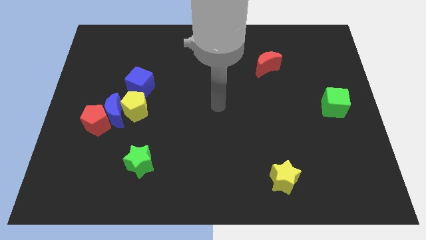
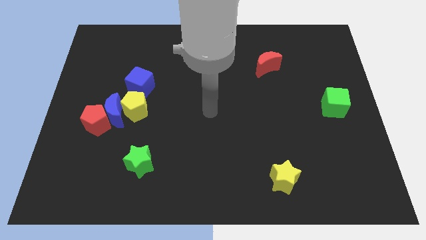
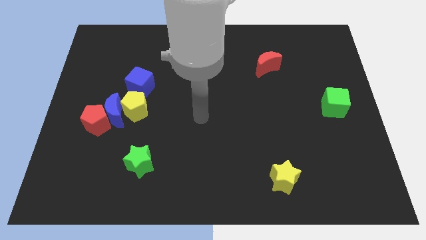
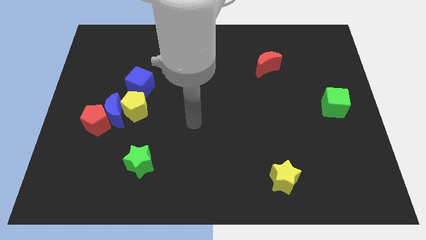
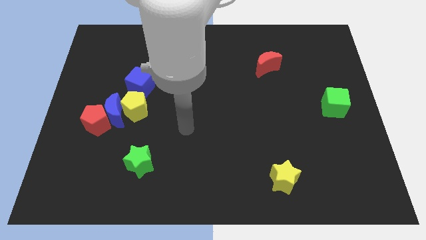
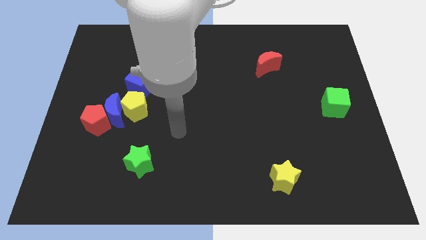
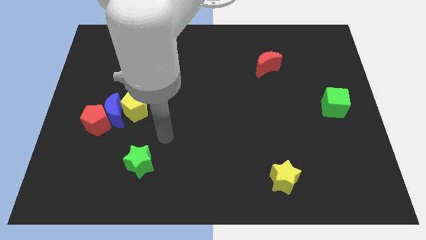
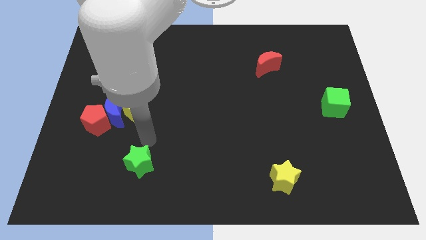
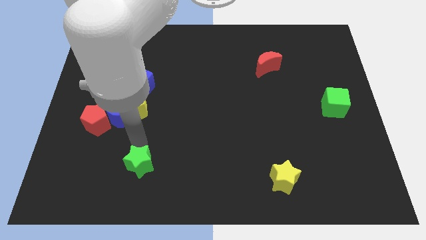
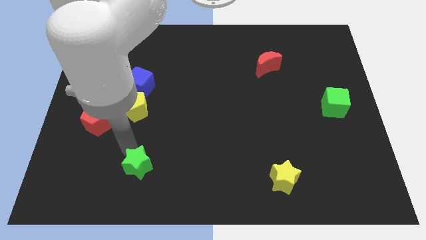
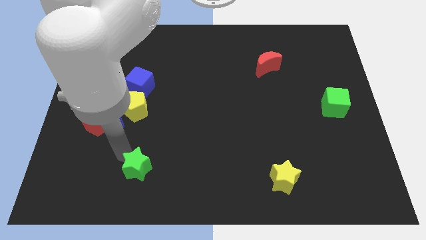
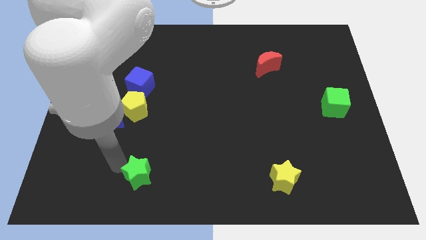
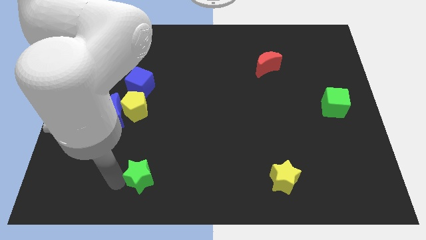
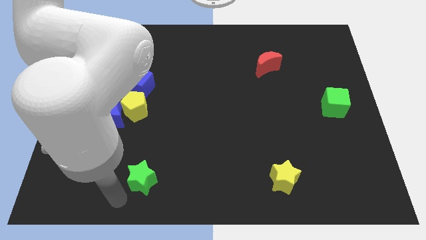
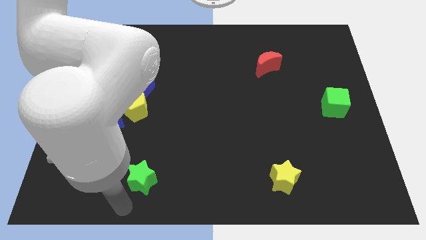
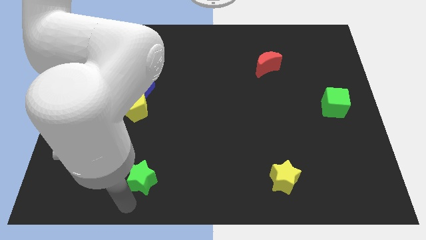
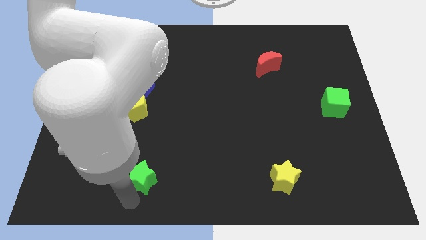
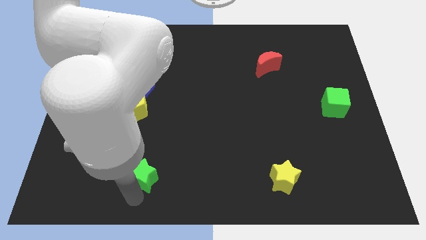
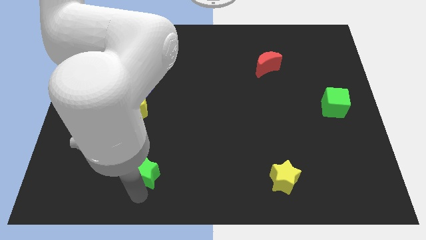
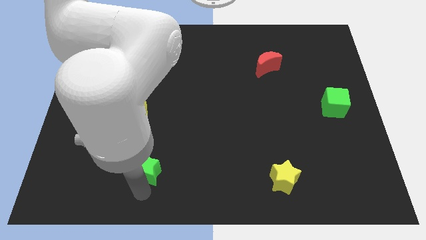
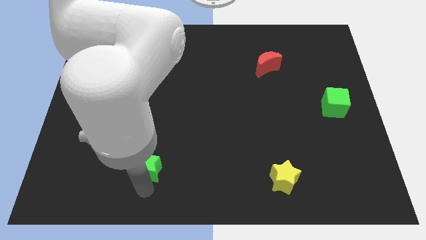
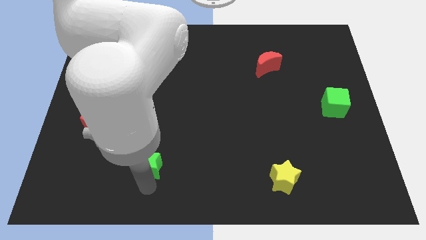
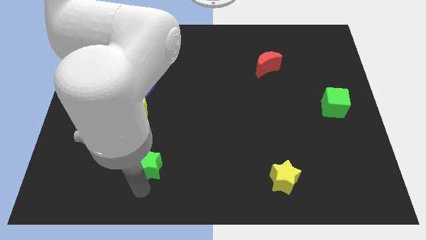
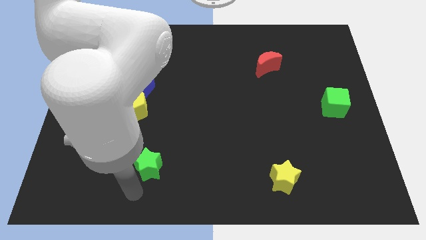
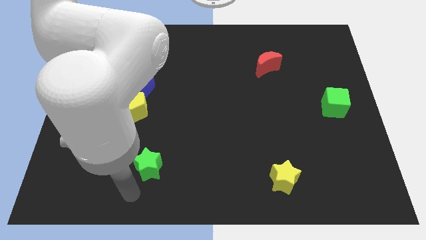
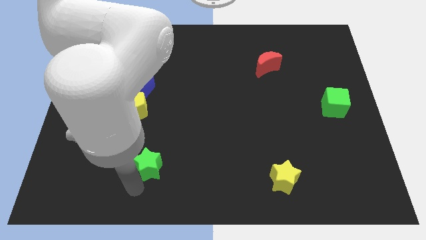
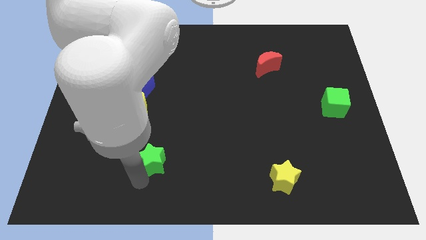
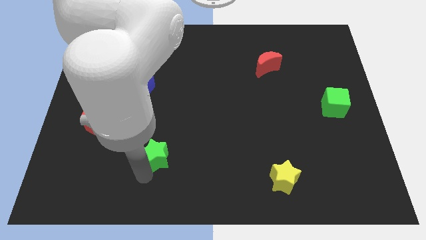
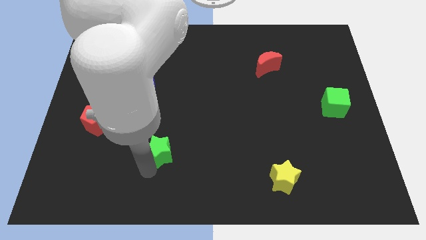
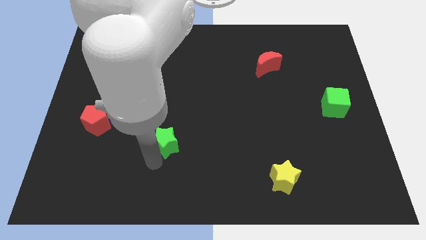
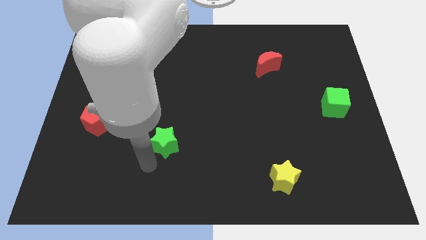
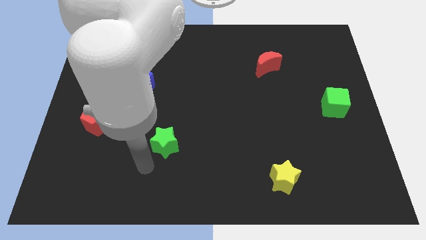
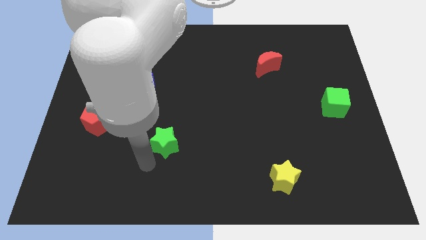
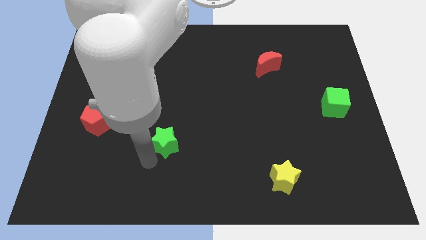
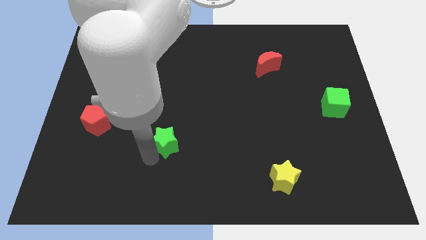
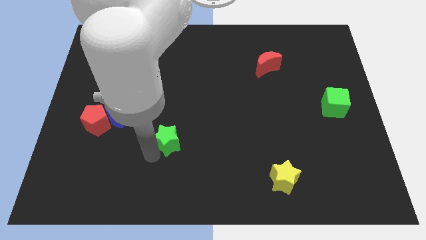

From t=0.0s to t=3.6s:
move the green star upwards and right somewhat

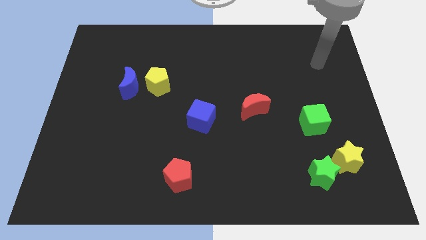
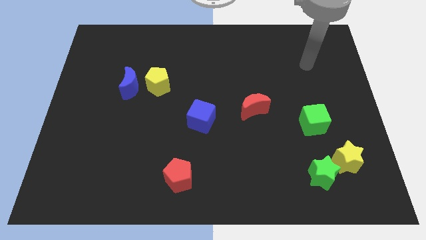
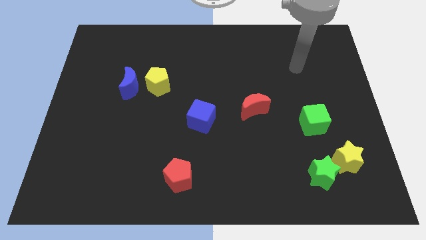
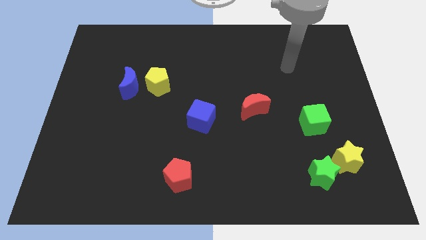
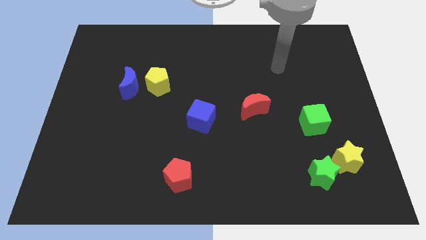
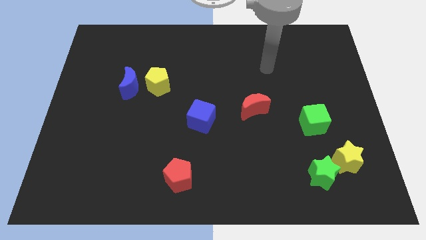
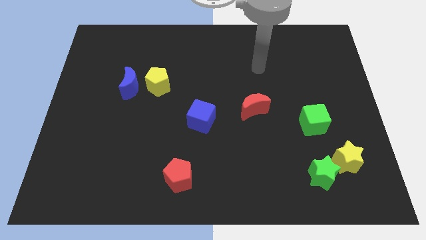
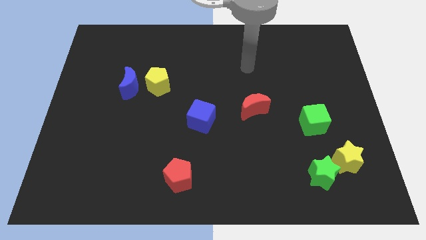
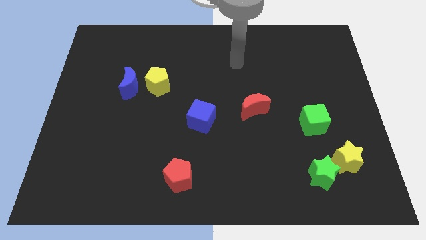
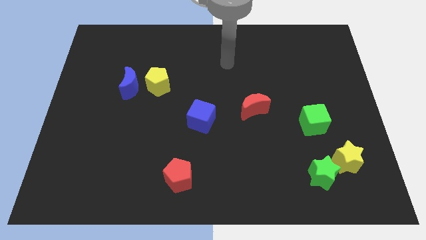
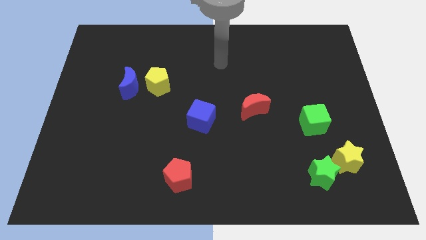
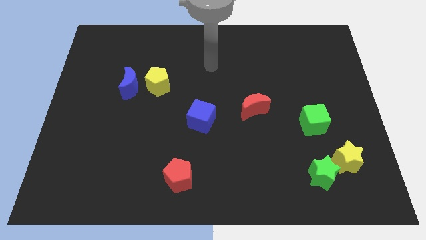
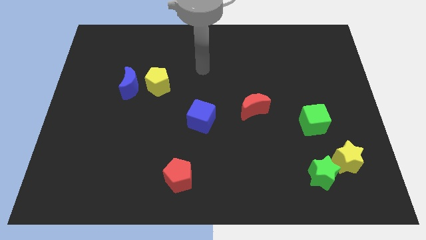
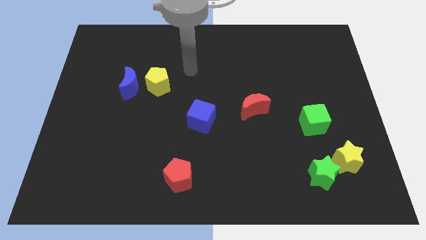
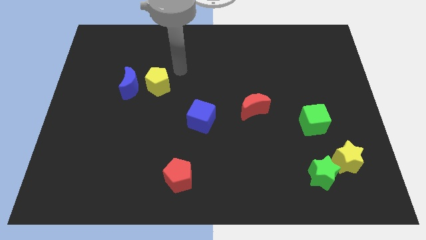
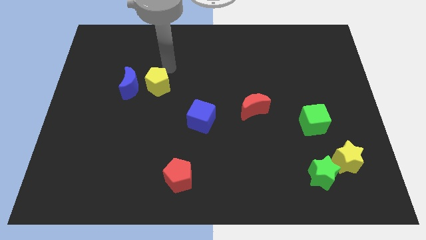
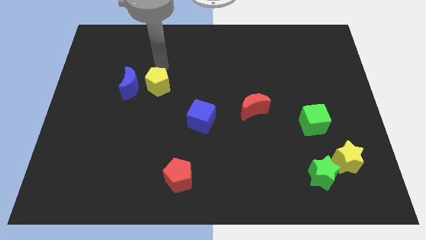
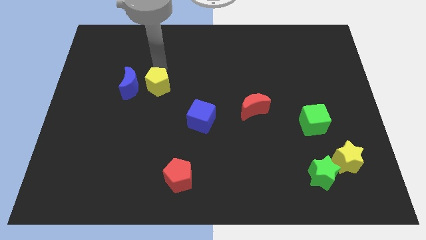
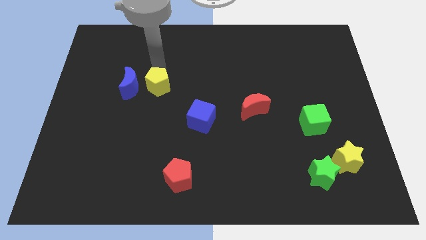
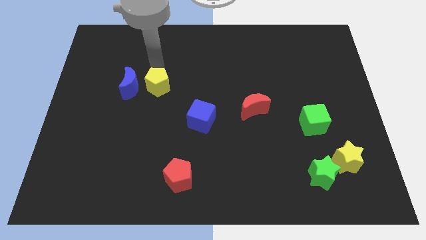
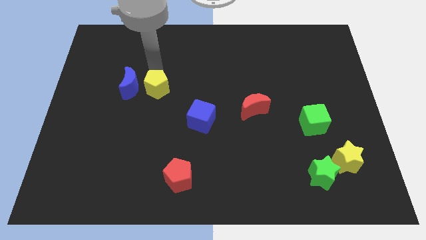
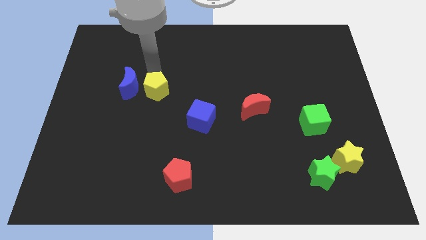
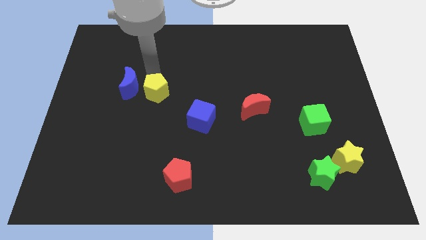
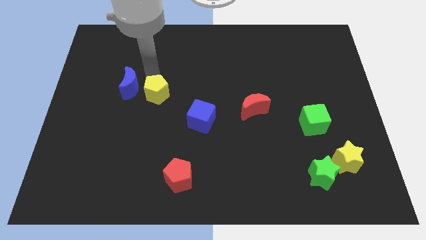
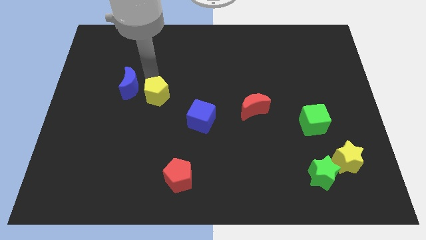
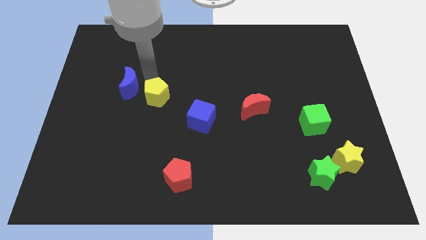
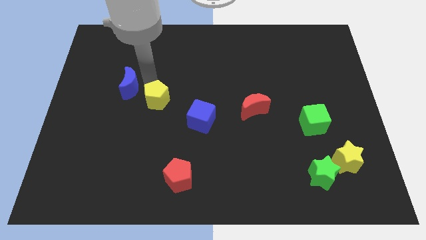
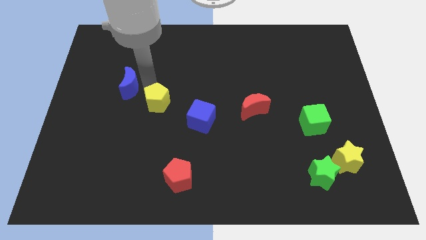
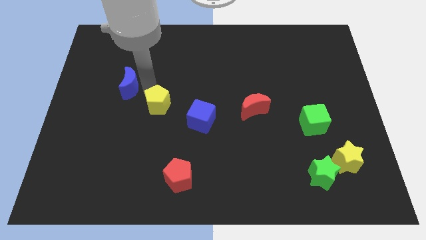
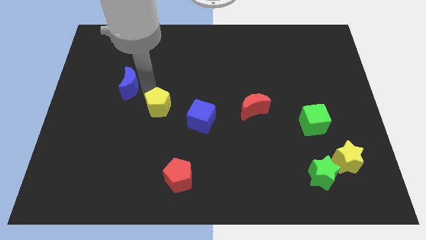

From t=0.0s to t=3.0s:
slide the yellow pentagon downwards a little

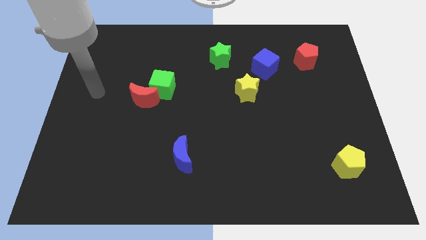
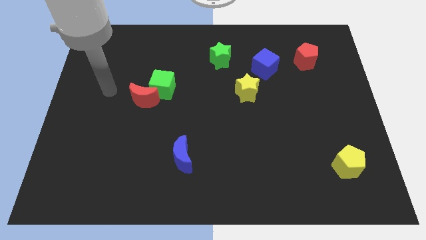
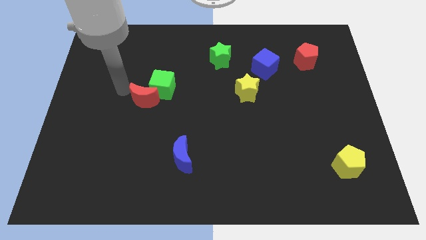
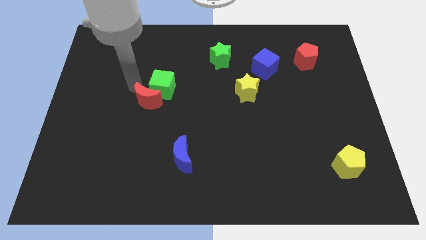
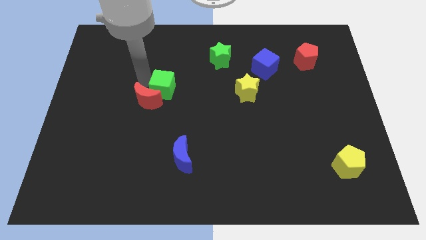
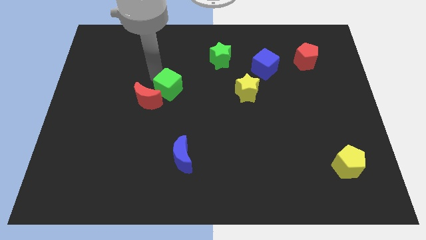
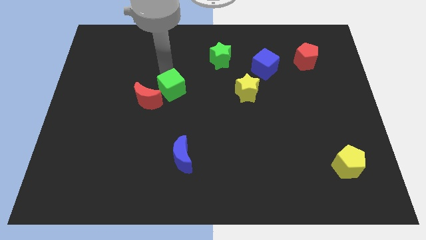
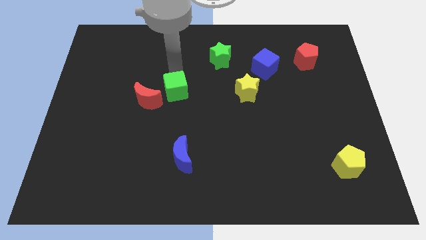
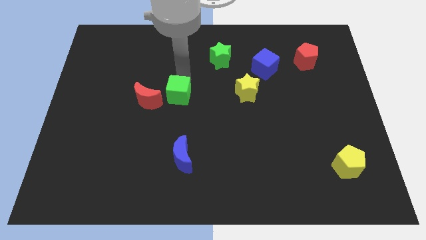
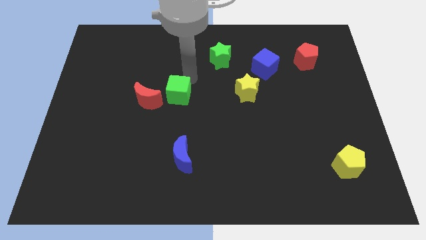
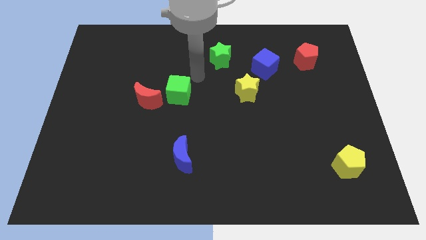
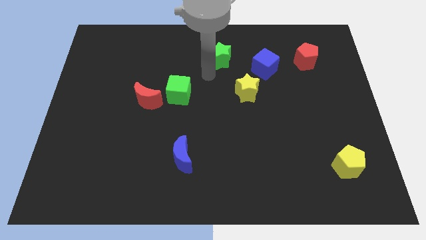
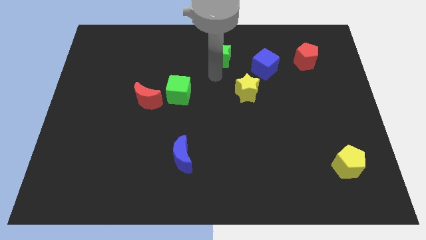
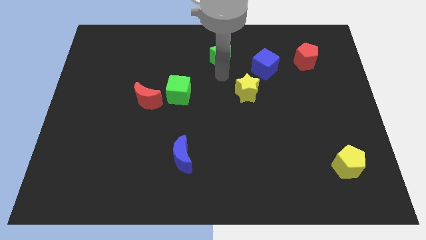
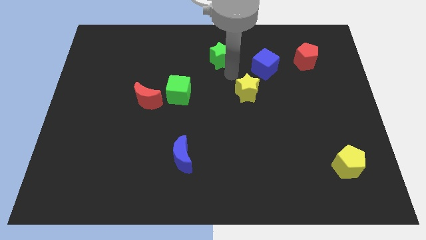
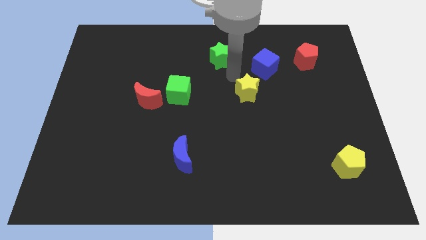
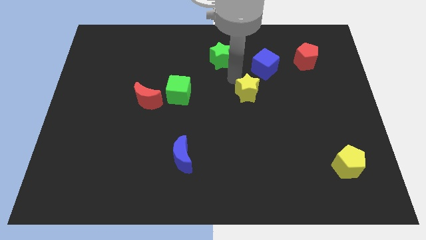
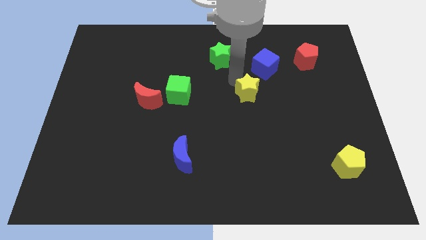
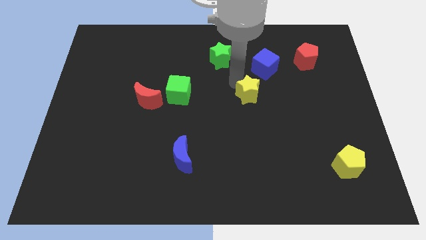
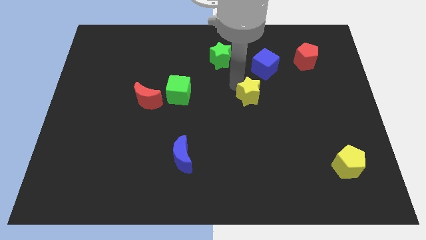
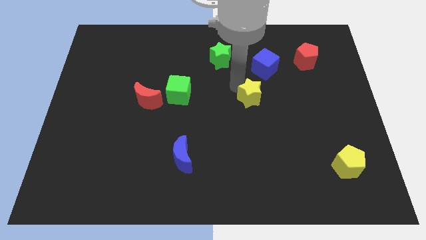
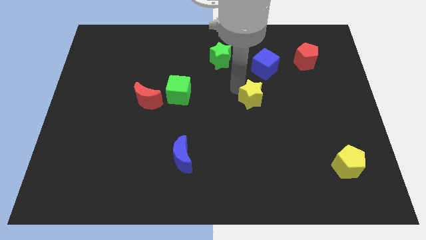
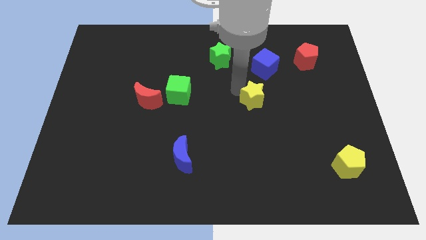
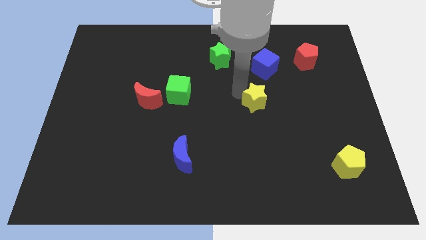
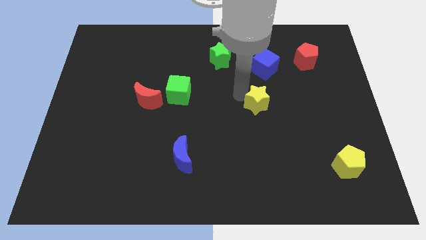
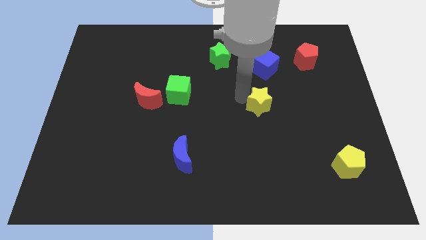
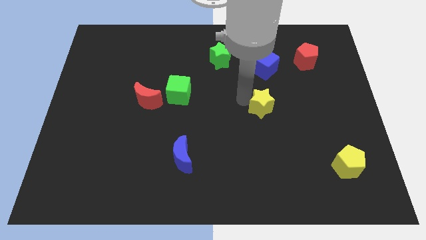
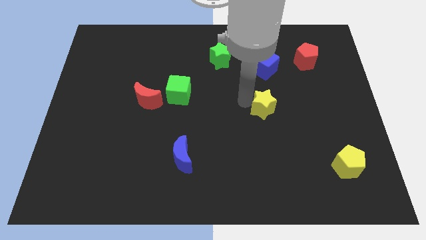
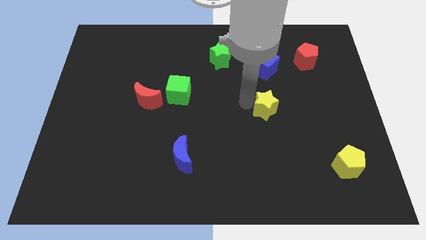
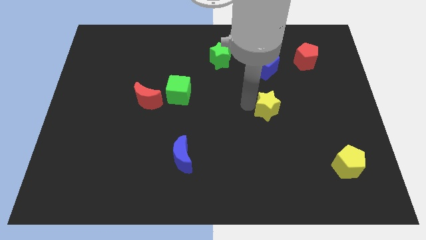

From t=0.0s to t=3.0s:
push the yellow star down and right a bit
